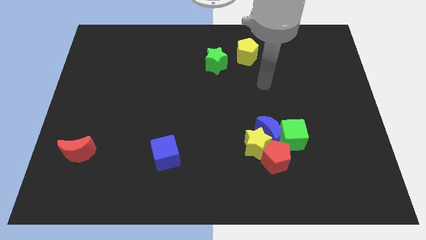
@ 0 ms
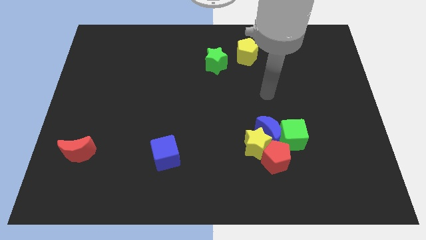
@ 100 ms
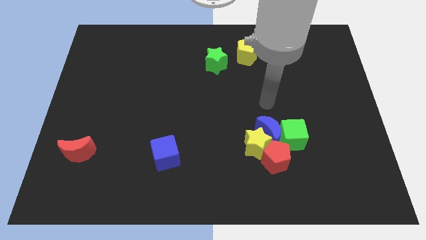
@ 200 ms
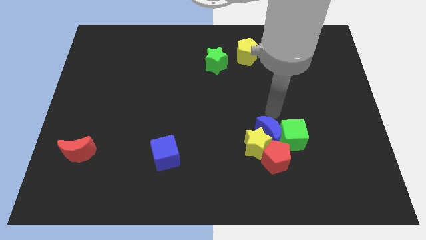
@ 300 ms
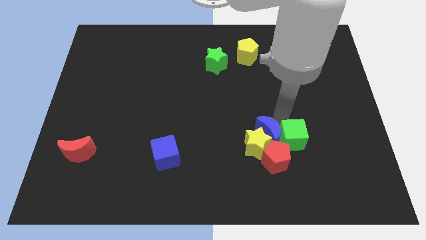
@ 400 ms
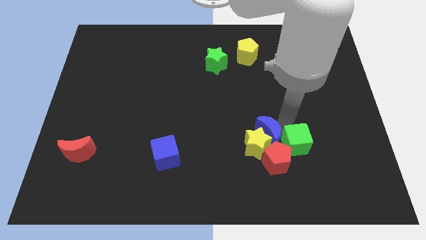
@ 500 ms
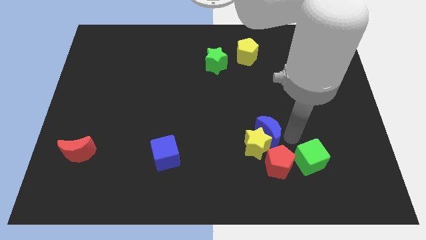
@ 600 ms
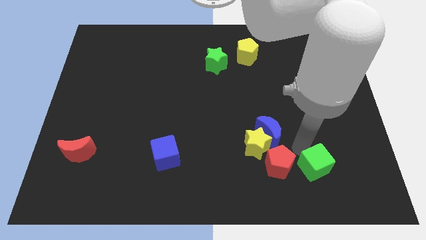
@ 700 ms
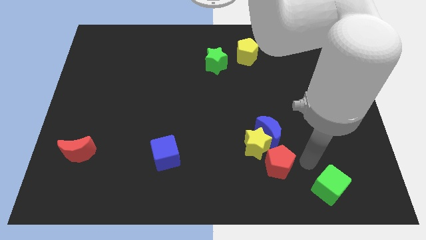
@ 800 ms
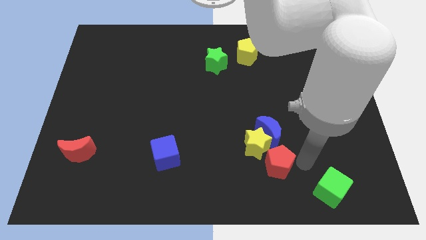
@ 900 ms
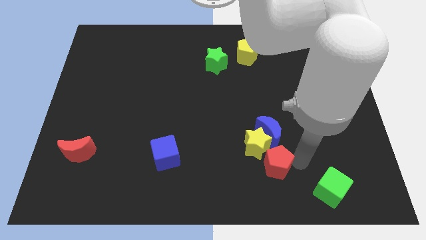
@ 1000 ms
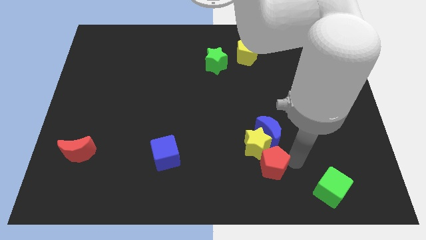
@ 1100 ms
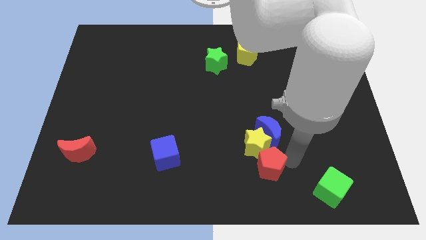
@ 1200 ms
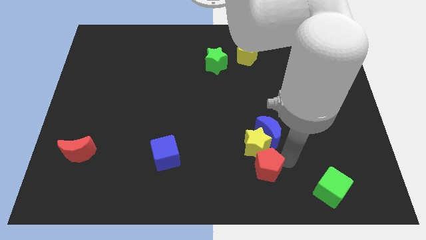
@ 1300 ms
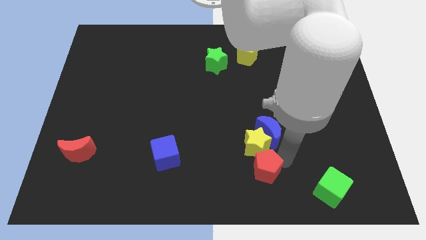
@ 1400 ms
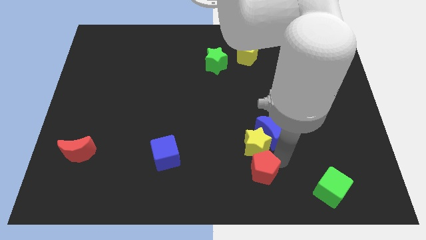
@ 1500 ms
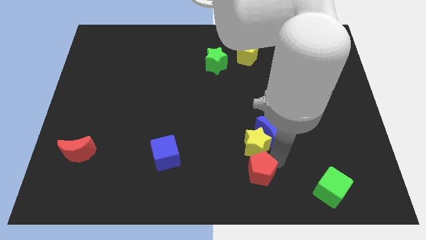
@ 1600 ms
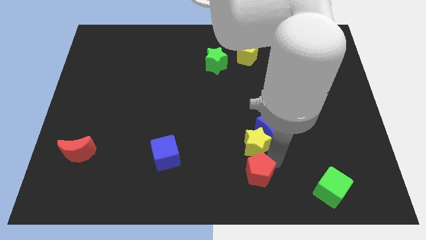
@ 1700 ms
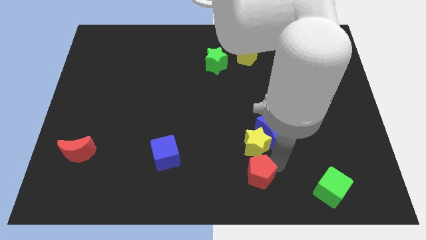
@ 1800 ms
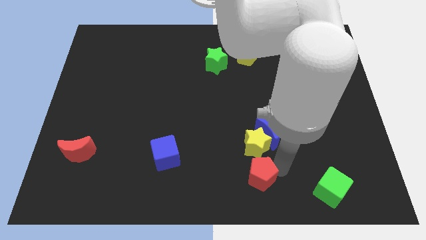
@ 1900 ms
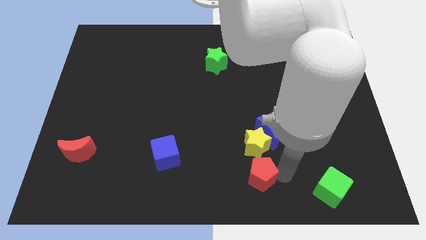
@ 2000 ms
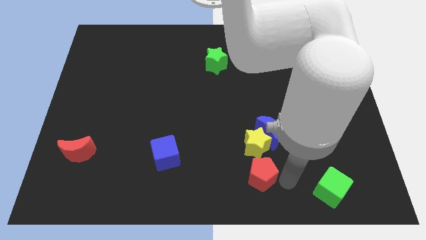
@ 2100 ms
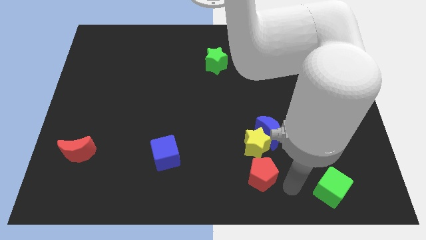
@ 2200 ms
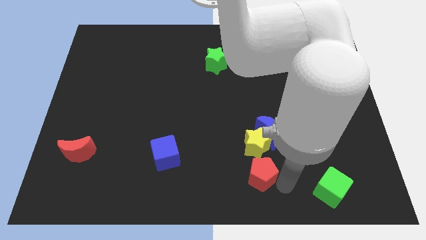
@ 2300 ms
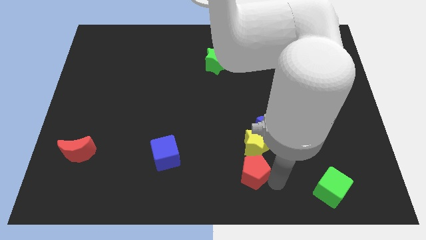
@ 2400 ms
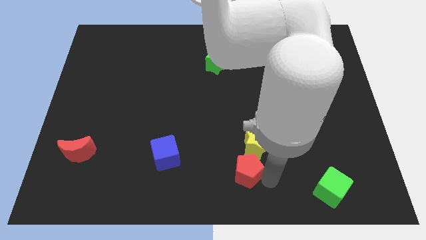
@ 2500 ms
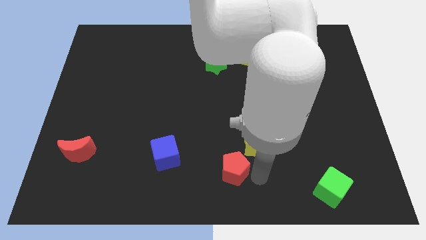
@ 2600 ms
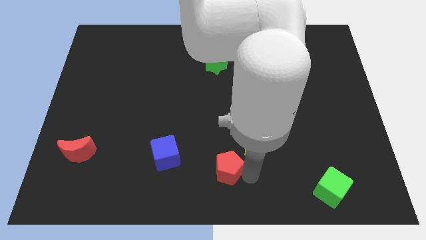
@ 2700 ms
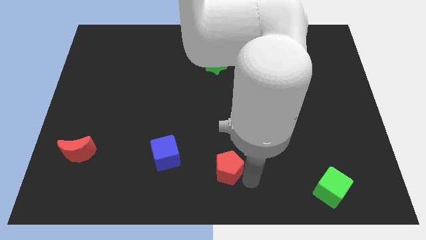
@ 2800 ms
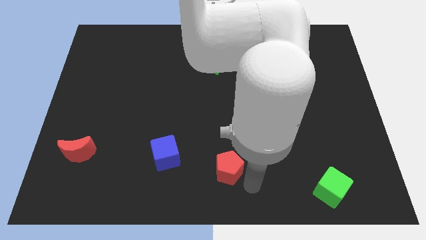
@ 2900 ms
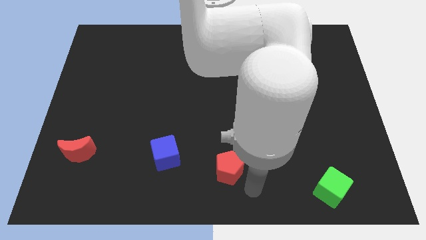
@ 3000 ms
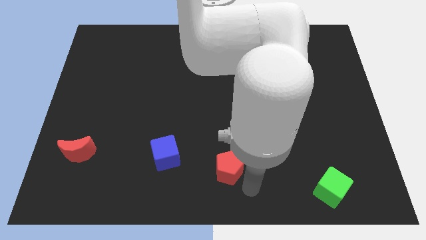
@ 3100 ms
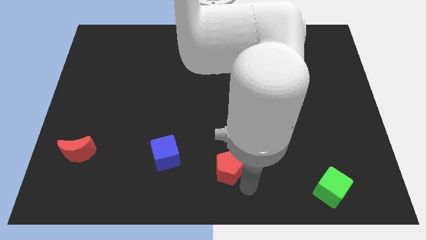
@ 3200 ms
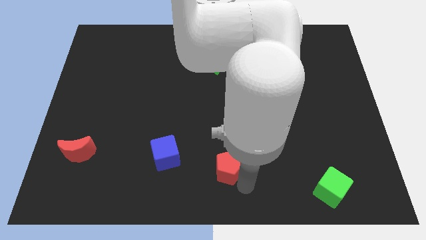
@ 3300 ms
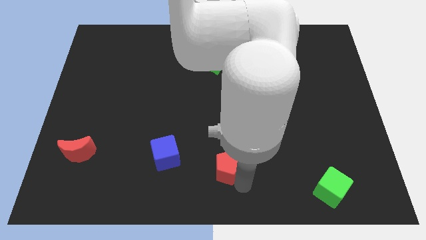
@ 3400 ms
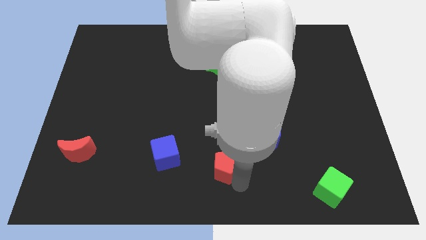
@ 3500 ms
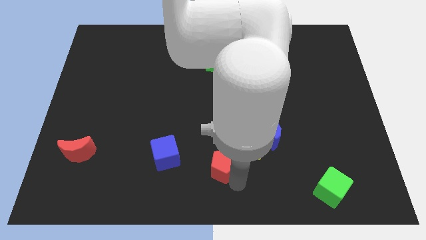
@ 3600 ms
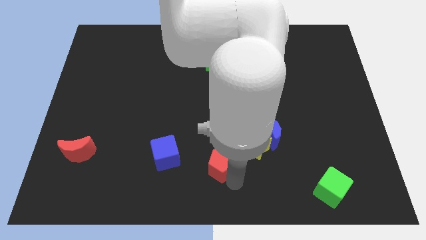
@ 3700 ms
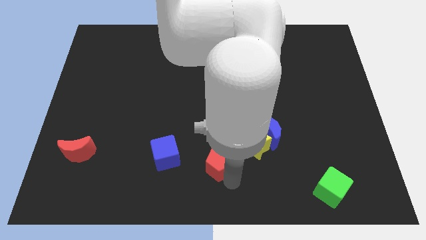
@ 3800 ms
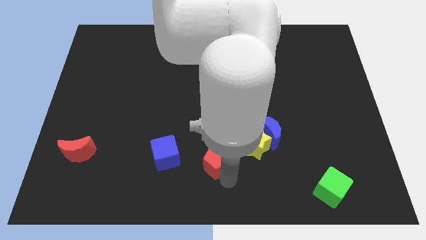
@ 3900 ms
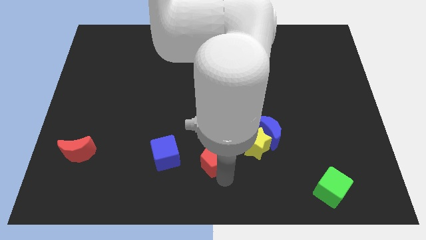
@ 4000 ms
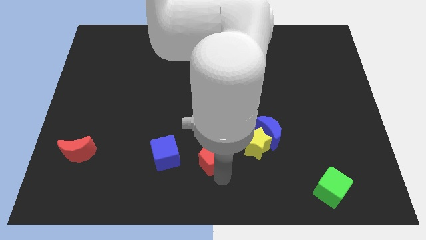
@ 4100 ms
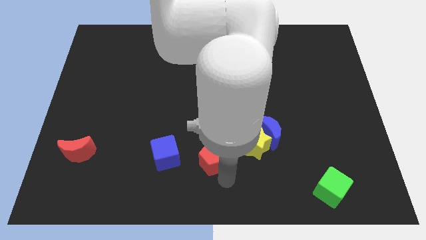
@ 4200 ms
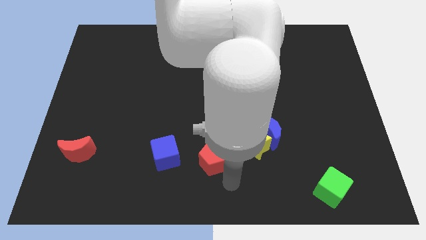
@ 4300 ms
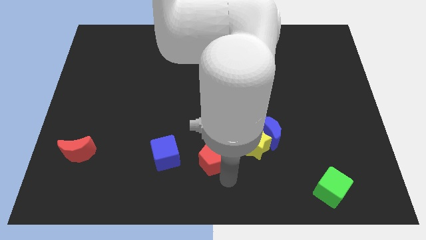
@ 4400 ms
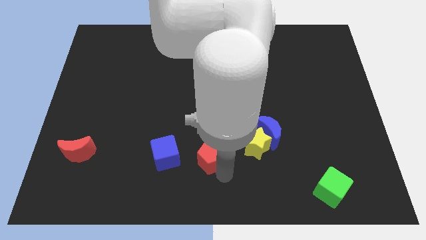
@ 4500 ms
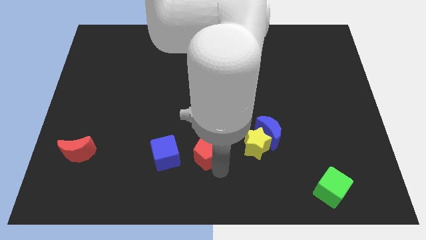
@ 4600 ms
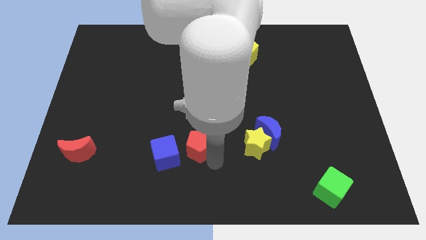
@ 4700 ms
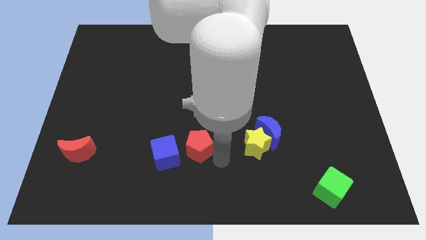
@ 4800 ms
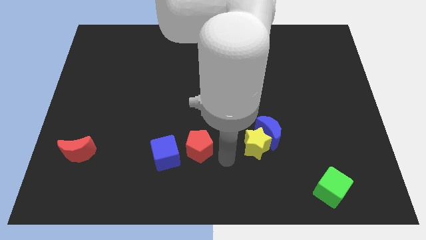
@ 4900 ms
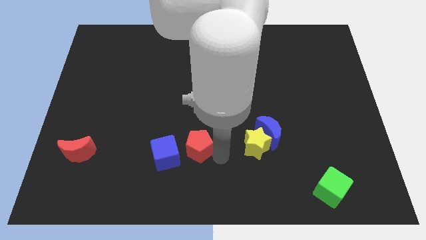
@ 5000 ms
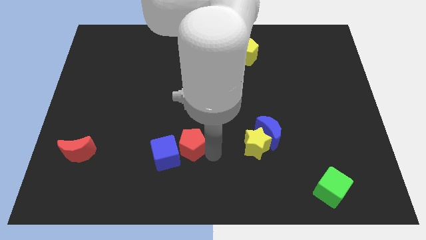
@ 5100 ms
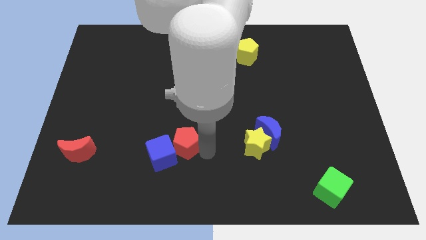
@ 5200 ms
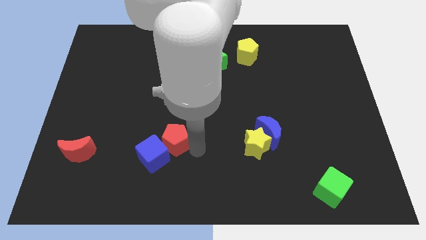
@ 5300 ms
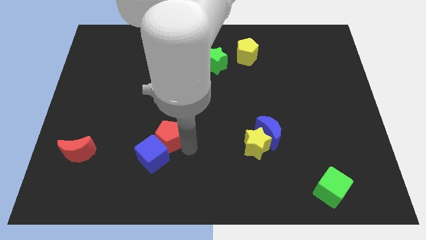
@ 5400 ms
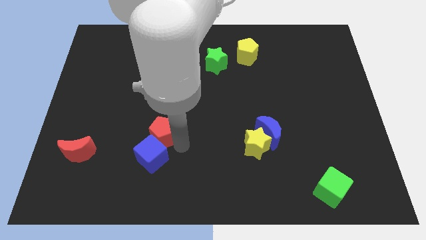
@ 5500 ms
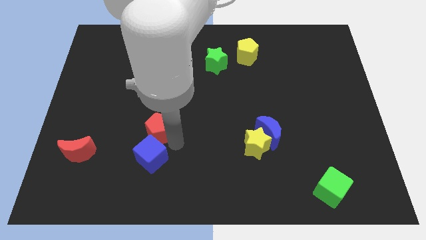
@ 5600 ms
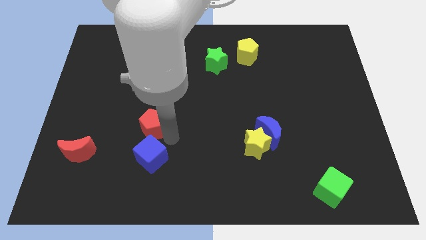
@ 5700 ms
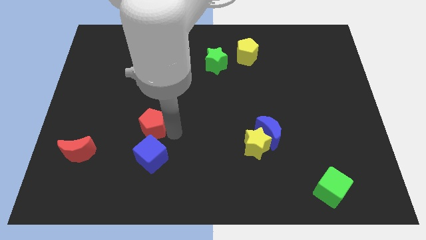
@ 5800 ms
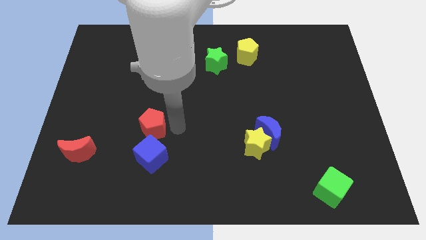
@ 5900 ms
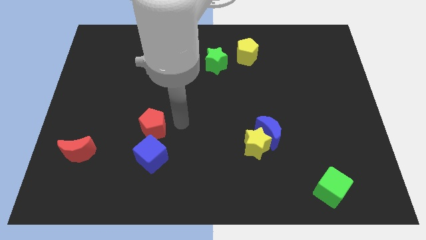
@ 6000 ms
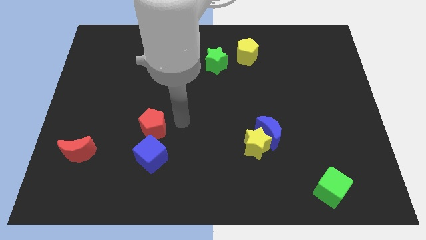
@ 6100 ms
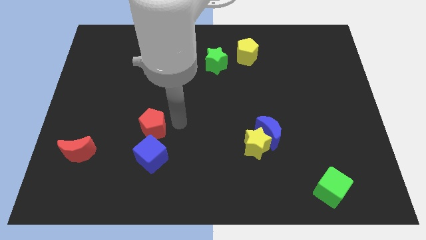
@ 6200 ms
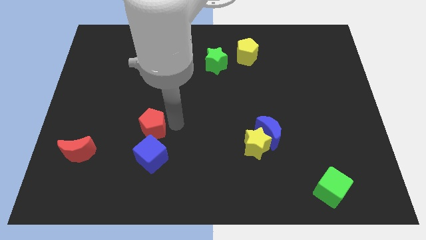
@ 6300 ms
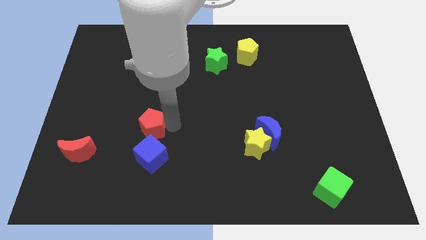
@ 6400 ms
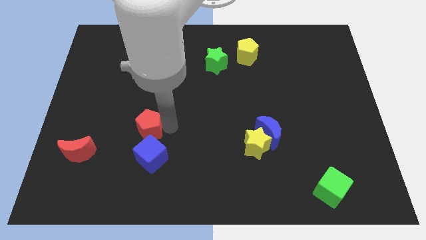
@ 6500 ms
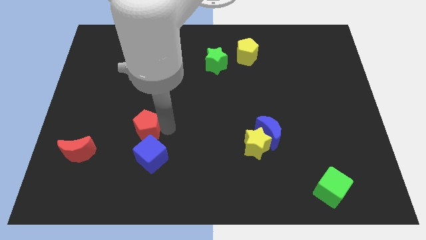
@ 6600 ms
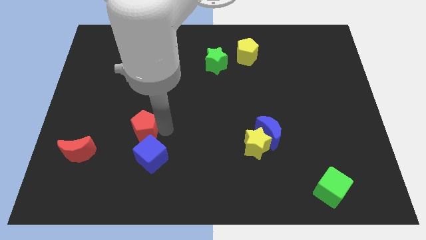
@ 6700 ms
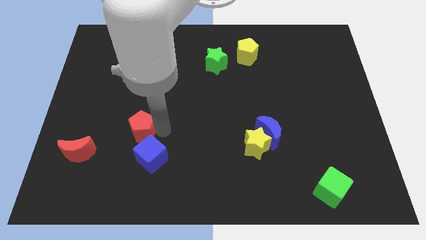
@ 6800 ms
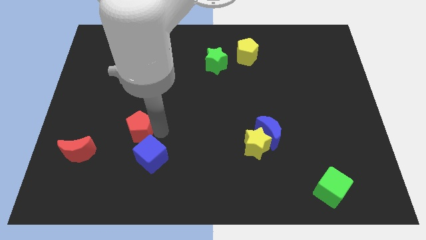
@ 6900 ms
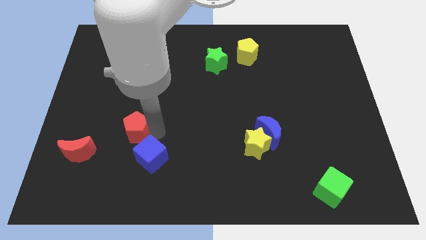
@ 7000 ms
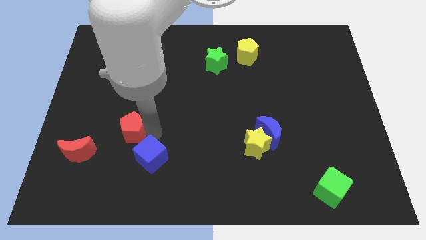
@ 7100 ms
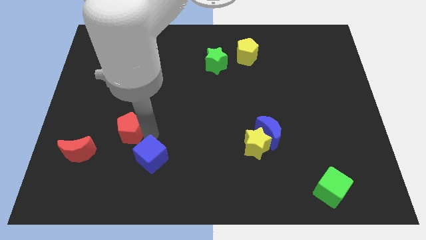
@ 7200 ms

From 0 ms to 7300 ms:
push the red pentagon to the top right side of the red moon

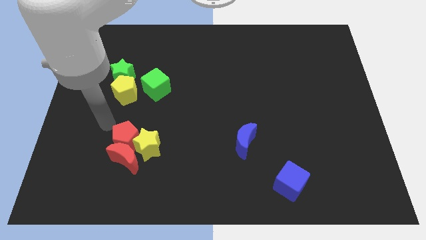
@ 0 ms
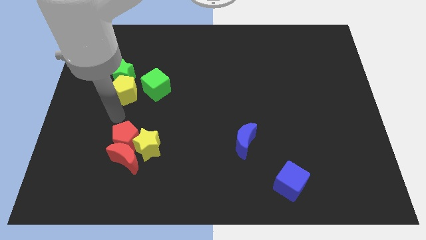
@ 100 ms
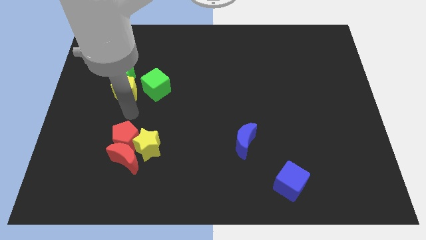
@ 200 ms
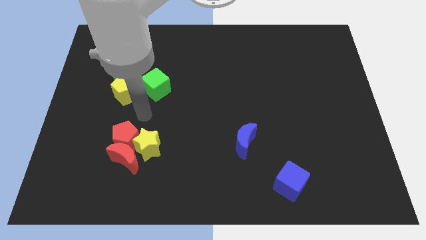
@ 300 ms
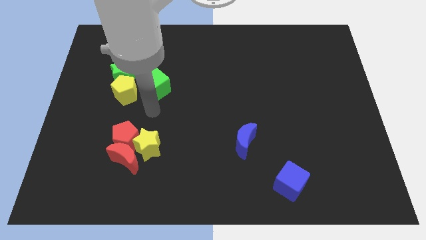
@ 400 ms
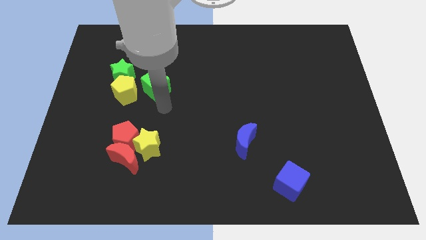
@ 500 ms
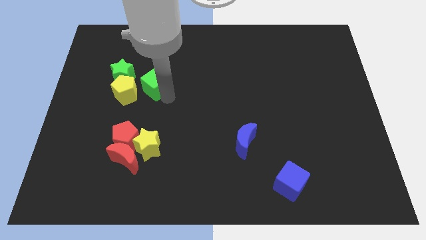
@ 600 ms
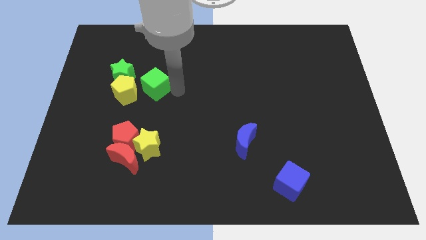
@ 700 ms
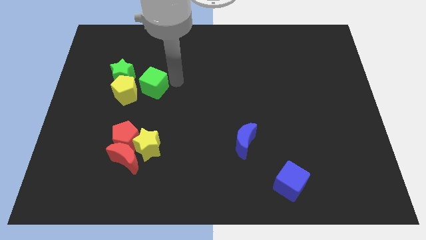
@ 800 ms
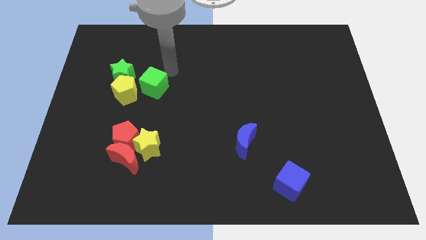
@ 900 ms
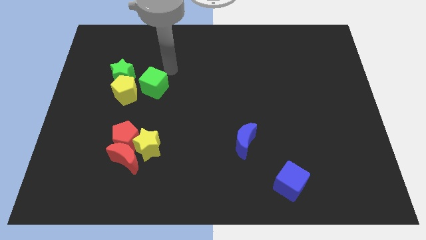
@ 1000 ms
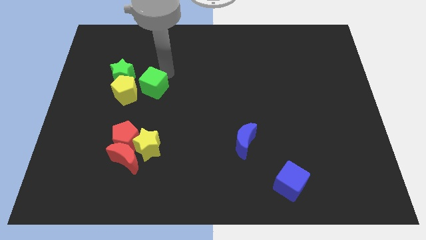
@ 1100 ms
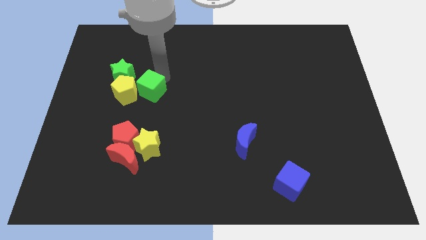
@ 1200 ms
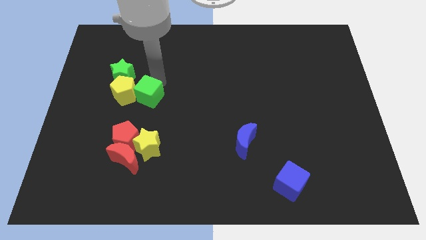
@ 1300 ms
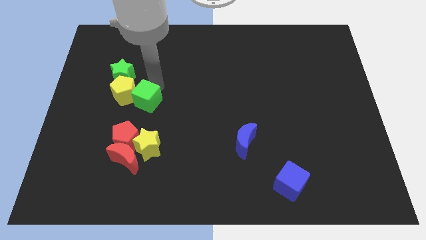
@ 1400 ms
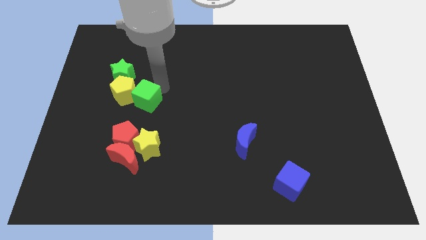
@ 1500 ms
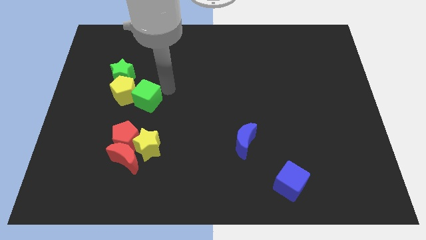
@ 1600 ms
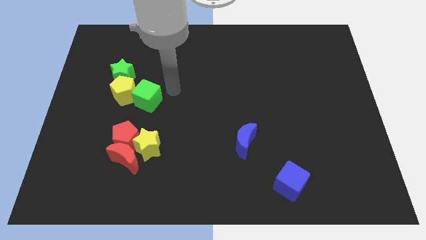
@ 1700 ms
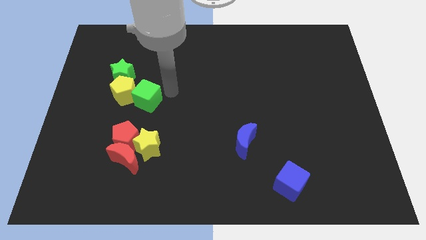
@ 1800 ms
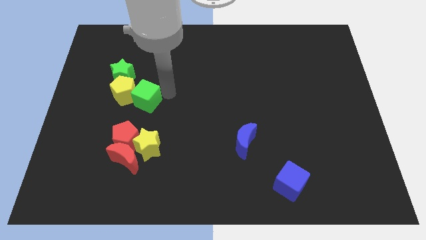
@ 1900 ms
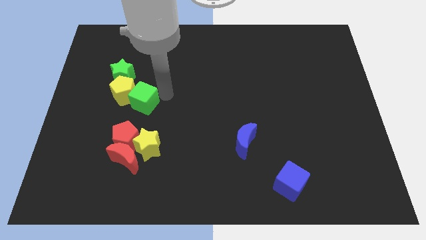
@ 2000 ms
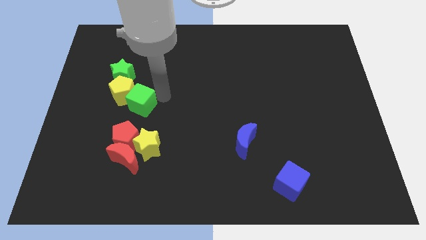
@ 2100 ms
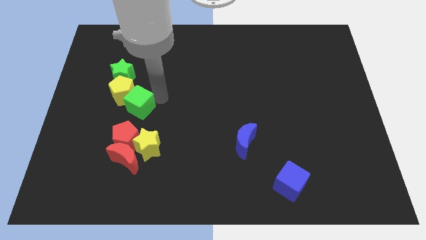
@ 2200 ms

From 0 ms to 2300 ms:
slide the green cube to the bottom of the green star
